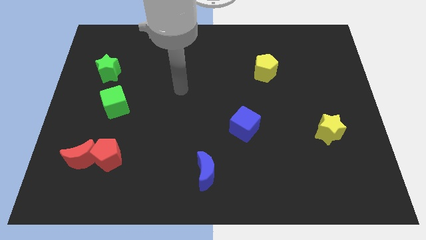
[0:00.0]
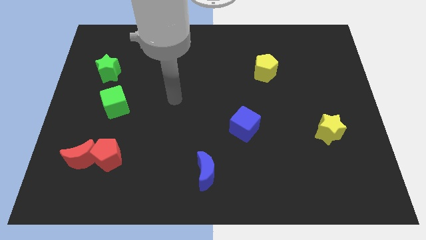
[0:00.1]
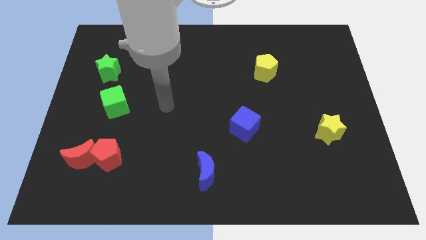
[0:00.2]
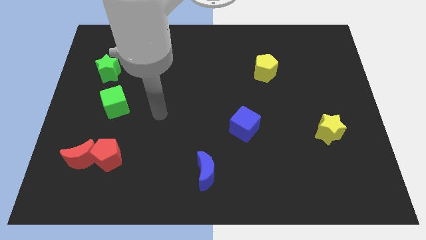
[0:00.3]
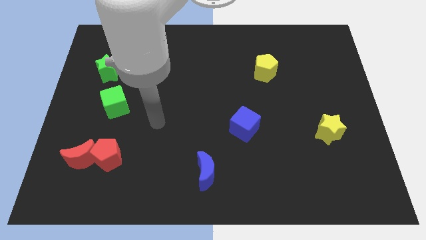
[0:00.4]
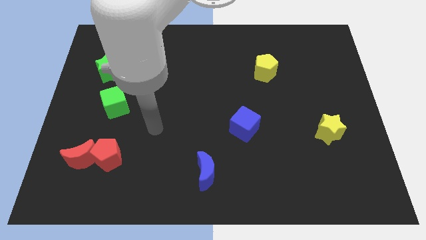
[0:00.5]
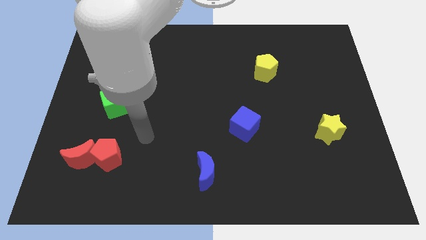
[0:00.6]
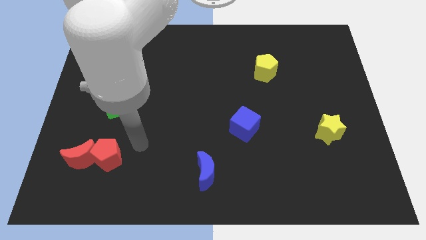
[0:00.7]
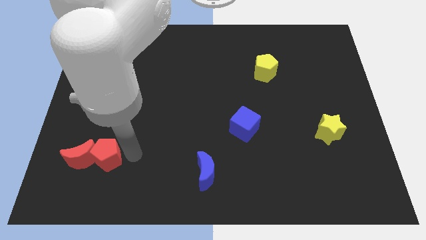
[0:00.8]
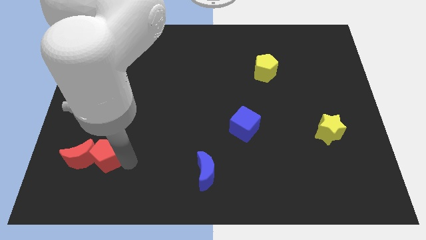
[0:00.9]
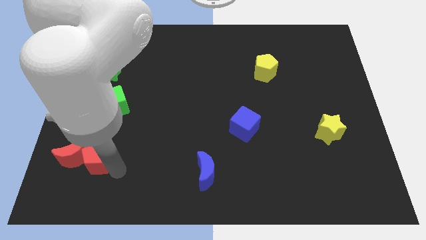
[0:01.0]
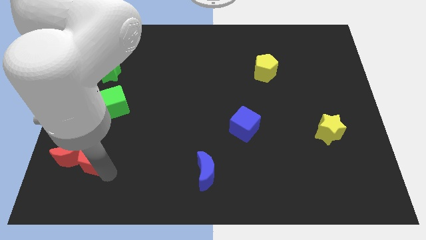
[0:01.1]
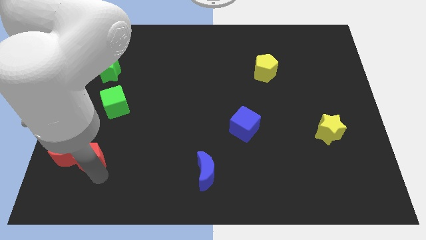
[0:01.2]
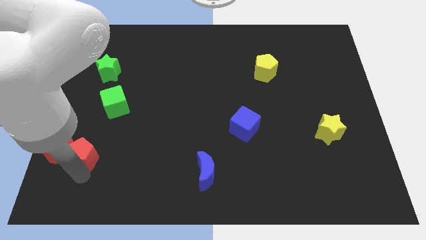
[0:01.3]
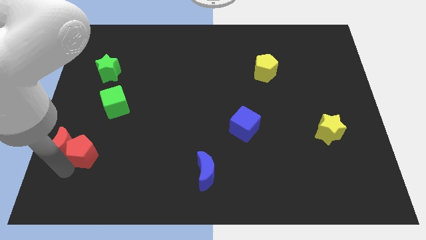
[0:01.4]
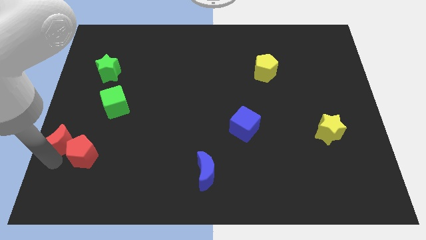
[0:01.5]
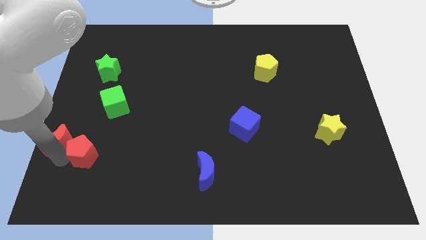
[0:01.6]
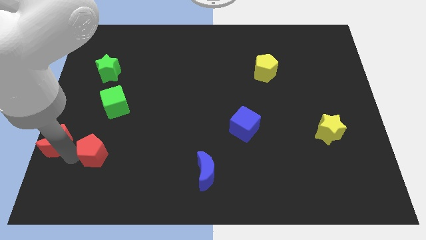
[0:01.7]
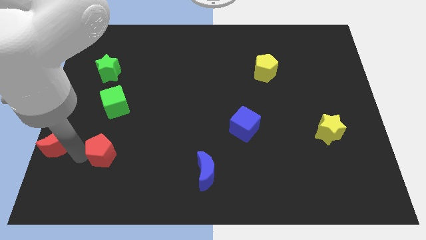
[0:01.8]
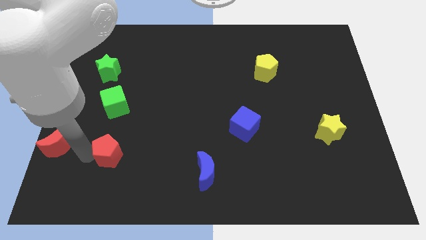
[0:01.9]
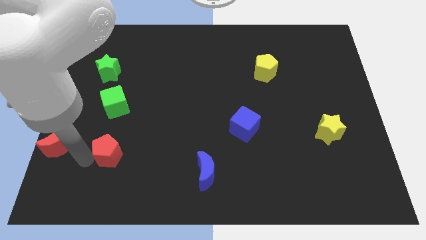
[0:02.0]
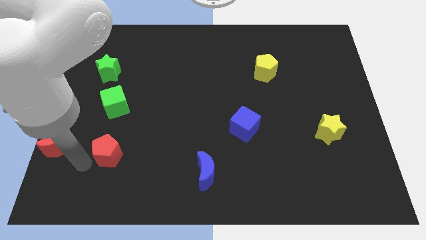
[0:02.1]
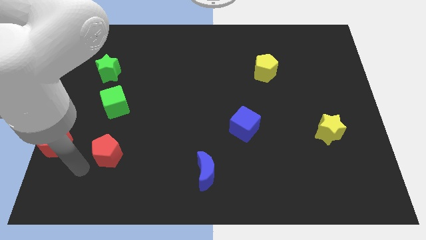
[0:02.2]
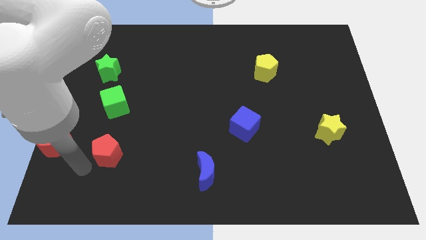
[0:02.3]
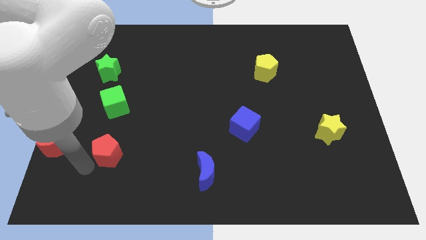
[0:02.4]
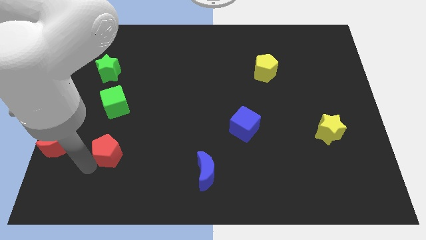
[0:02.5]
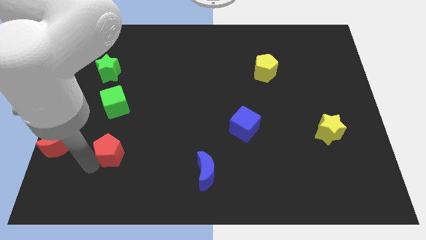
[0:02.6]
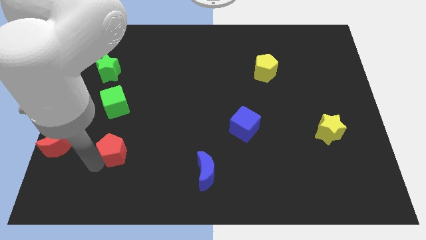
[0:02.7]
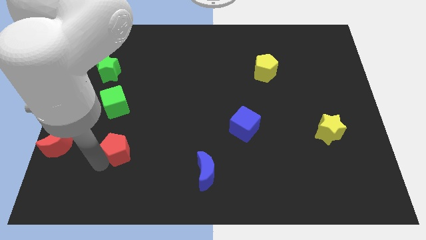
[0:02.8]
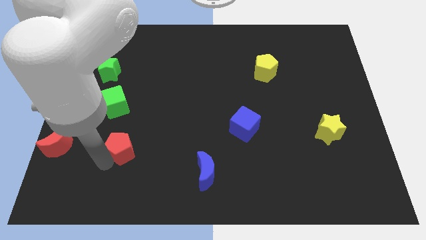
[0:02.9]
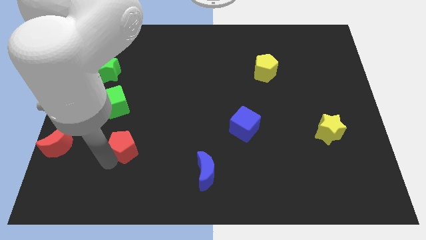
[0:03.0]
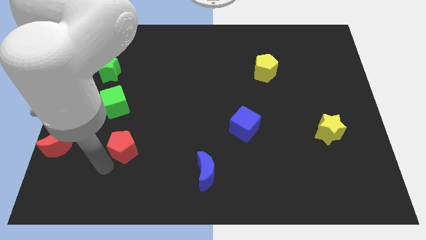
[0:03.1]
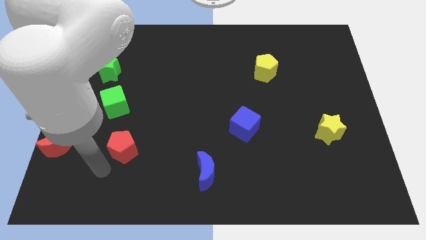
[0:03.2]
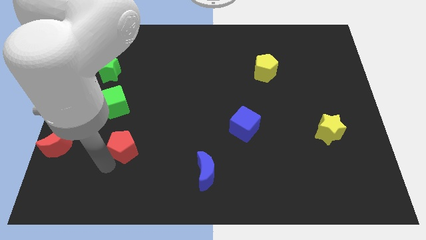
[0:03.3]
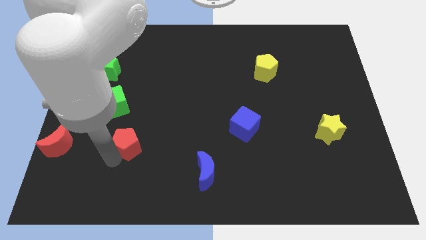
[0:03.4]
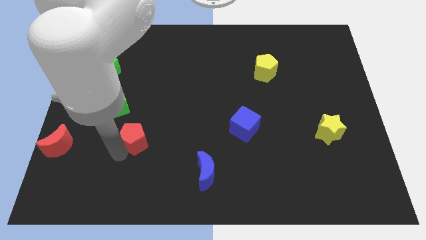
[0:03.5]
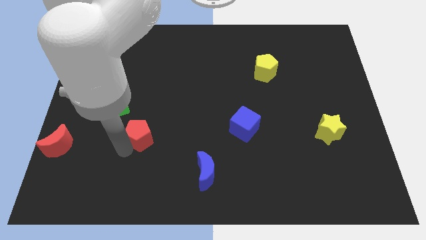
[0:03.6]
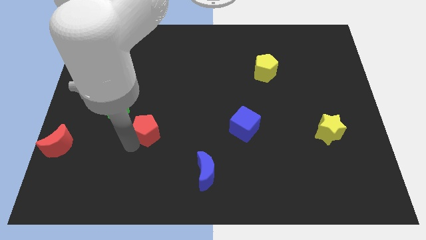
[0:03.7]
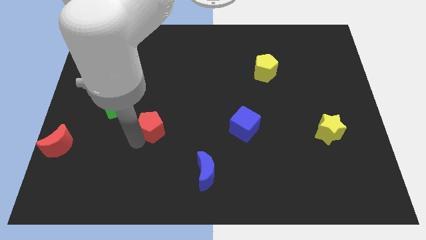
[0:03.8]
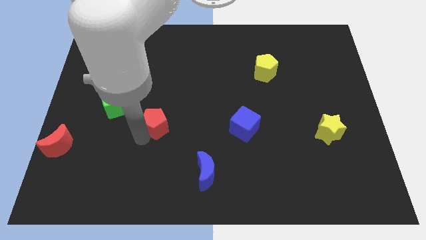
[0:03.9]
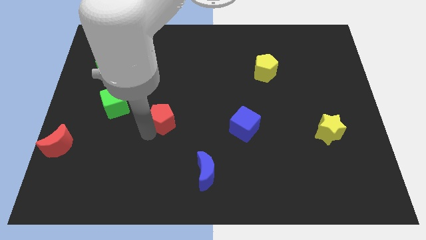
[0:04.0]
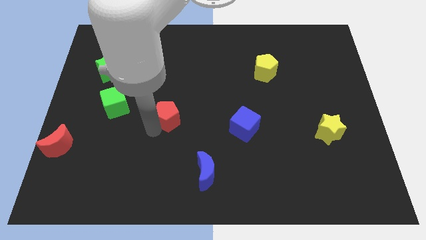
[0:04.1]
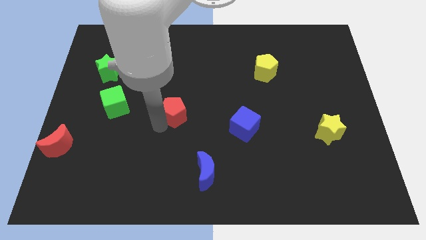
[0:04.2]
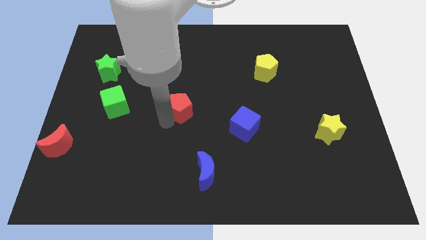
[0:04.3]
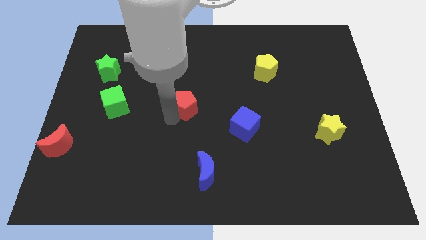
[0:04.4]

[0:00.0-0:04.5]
push the red pentagon up and then to the right

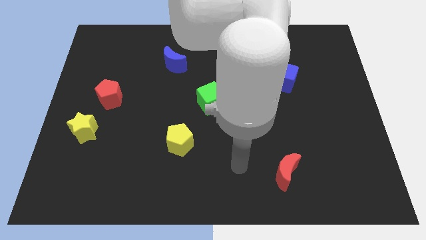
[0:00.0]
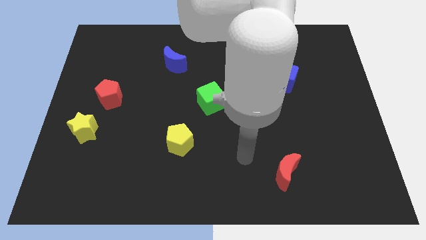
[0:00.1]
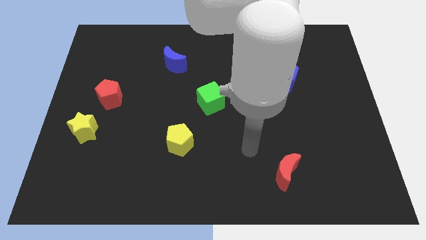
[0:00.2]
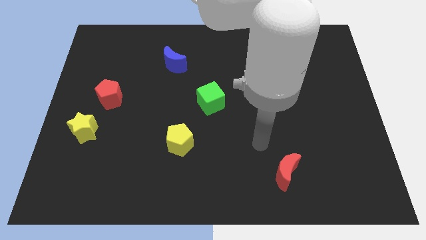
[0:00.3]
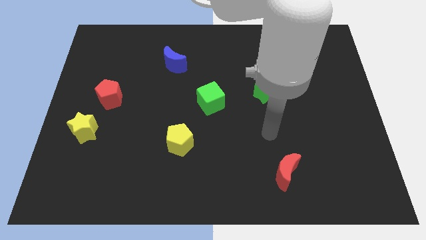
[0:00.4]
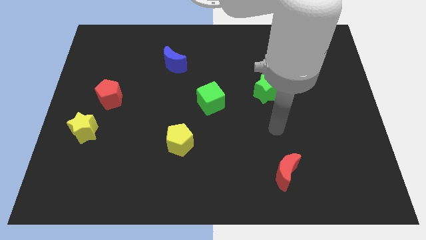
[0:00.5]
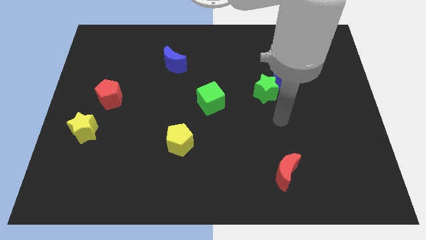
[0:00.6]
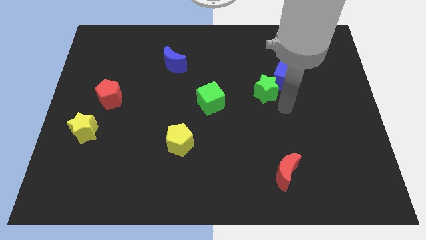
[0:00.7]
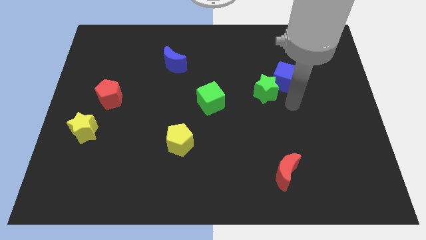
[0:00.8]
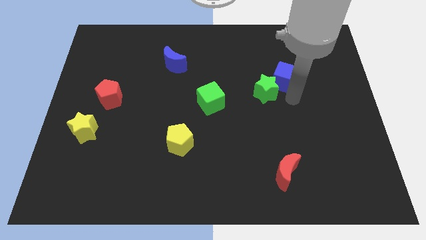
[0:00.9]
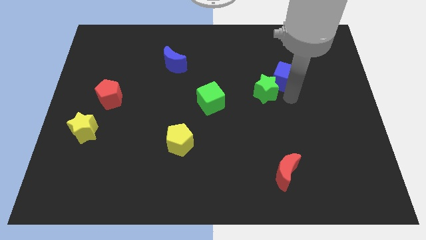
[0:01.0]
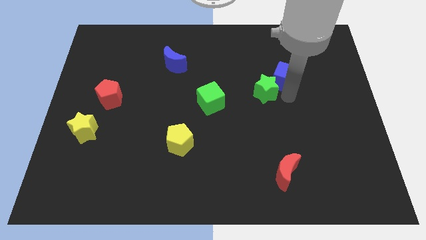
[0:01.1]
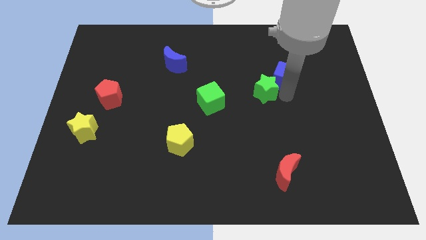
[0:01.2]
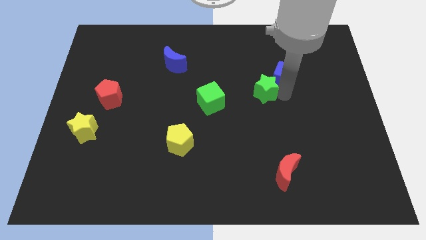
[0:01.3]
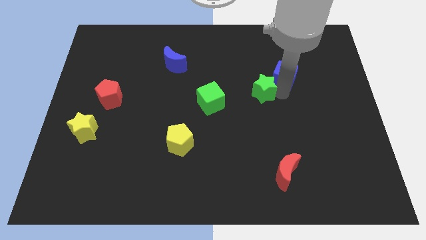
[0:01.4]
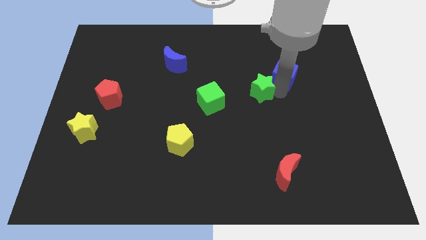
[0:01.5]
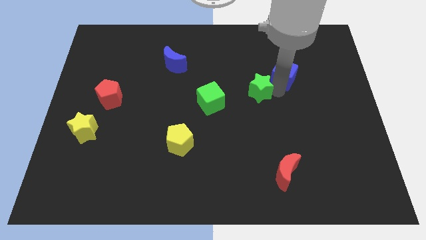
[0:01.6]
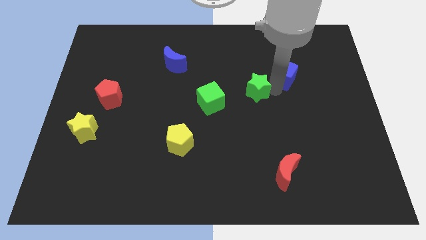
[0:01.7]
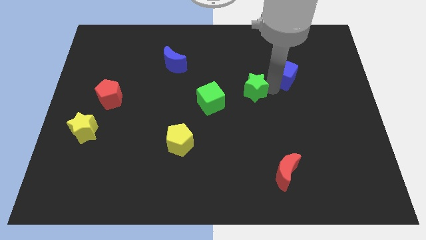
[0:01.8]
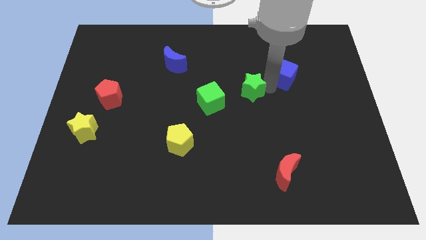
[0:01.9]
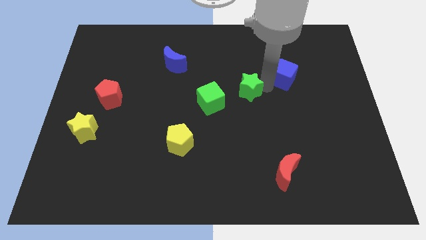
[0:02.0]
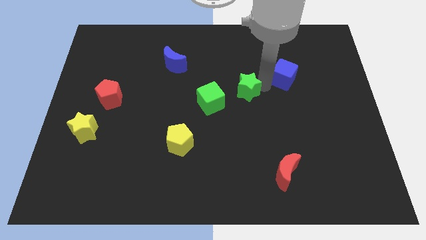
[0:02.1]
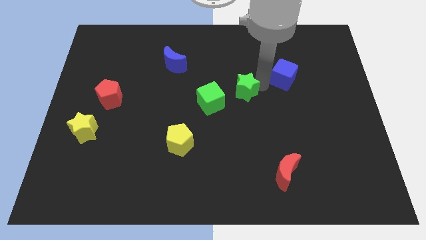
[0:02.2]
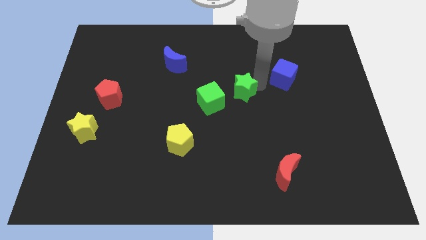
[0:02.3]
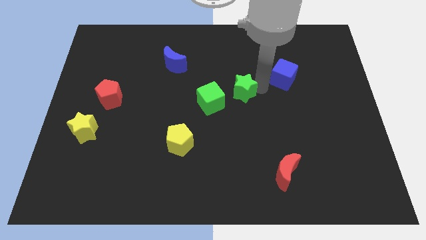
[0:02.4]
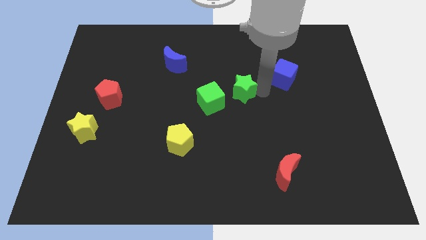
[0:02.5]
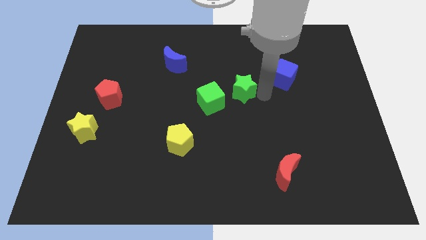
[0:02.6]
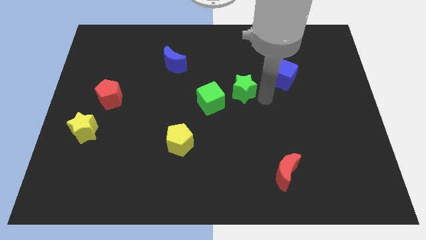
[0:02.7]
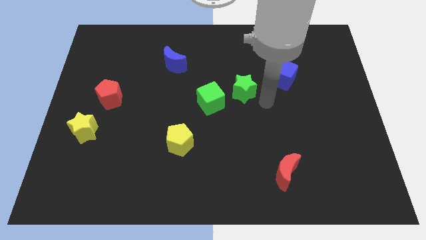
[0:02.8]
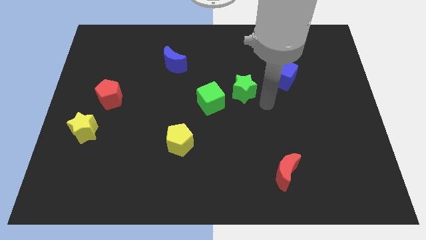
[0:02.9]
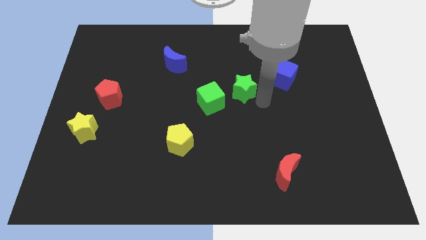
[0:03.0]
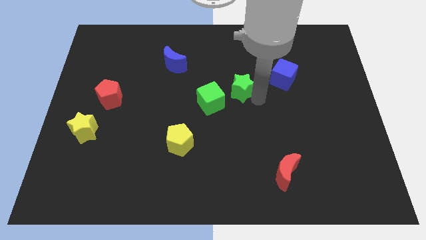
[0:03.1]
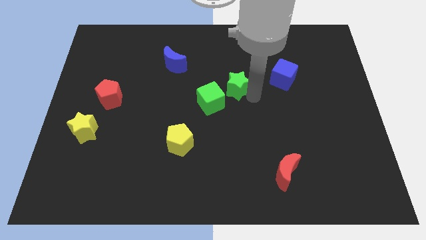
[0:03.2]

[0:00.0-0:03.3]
slide the green star left a bit

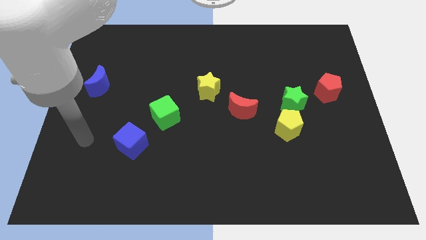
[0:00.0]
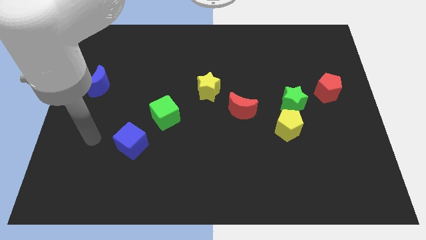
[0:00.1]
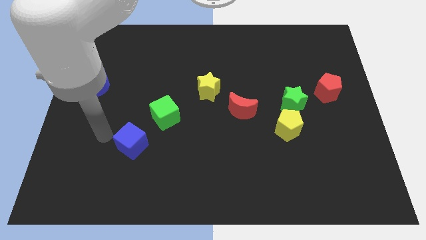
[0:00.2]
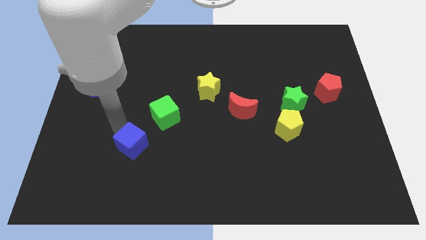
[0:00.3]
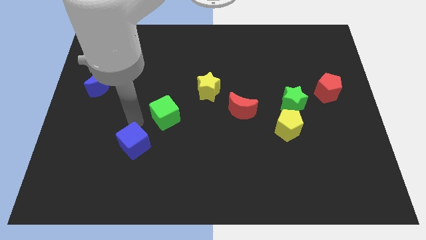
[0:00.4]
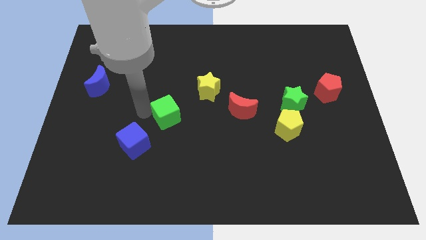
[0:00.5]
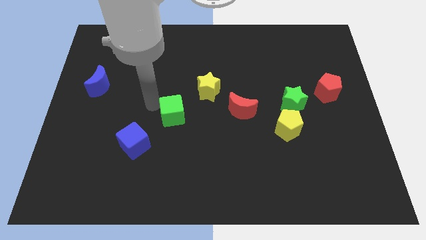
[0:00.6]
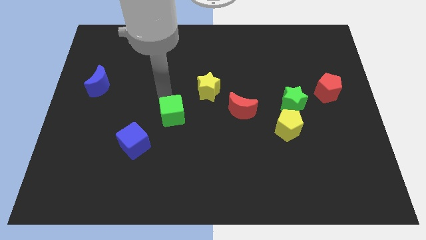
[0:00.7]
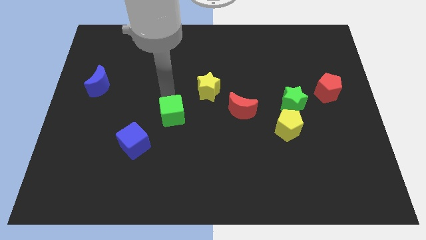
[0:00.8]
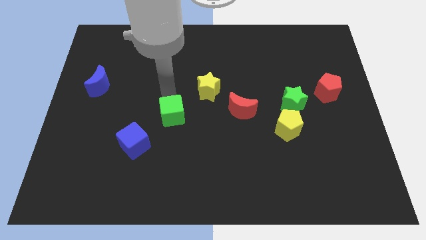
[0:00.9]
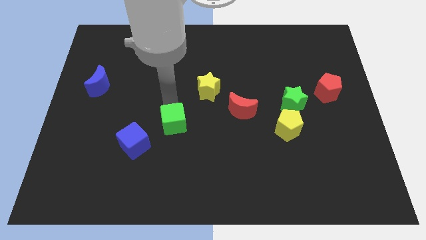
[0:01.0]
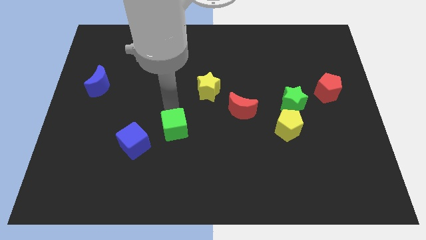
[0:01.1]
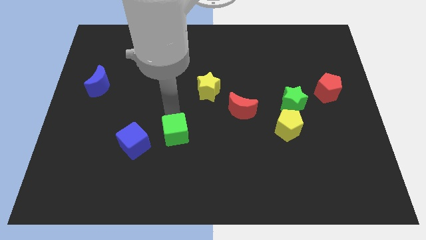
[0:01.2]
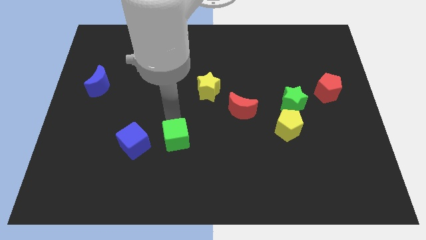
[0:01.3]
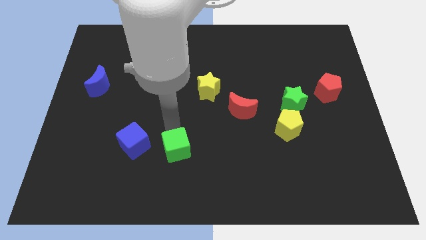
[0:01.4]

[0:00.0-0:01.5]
slide the green cube a little downwards and then right
